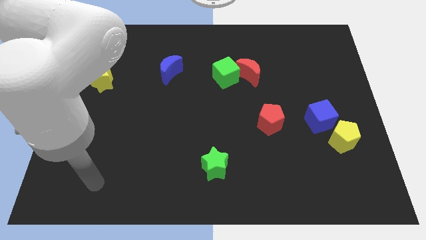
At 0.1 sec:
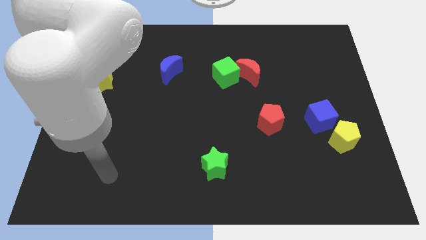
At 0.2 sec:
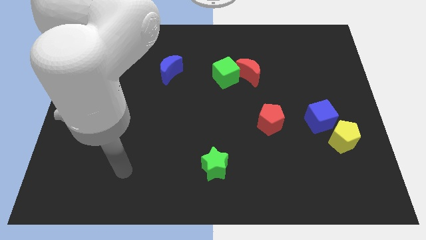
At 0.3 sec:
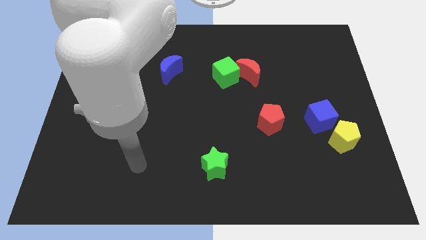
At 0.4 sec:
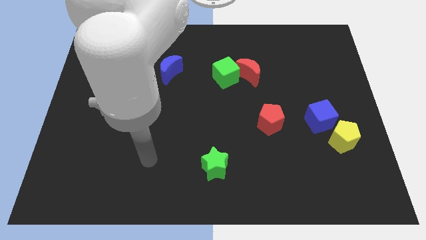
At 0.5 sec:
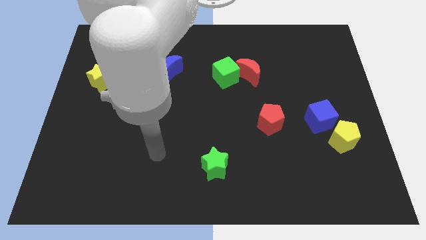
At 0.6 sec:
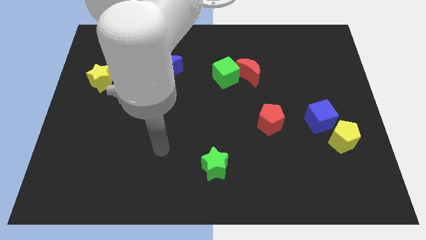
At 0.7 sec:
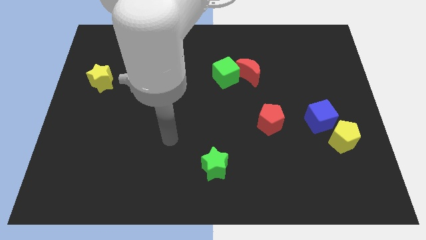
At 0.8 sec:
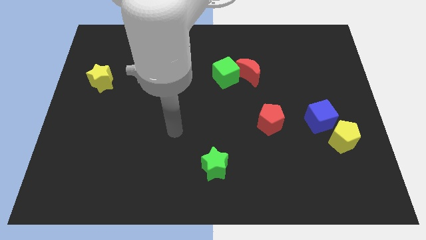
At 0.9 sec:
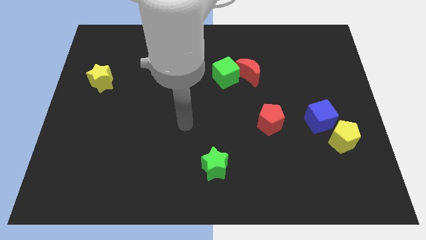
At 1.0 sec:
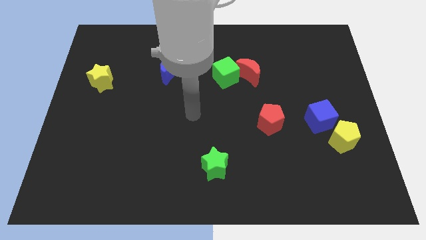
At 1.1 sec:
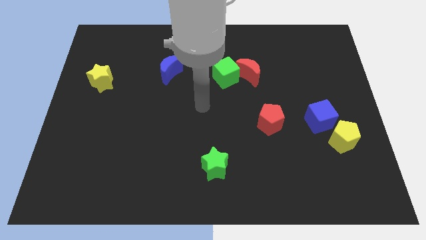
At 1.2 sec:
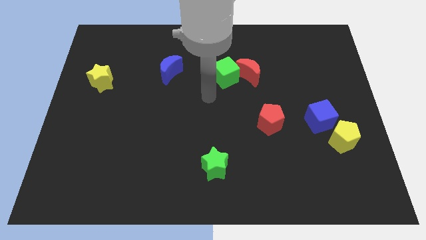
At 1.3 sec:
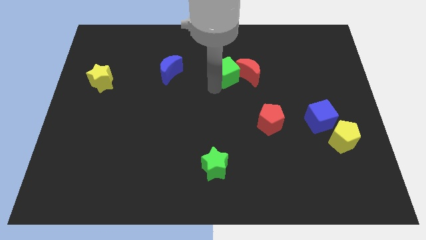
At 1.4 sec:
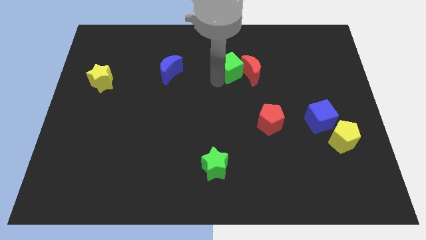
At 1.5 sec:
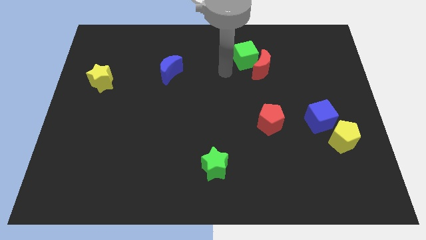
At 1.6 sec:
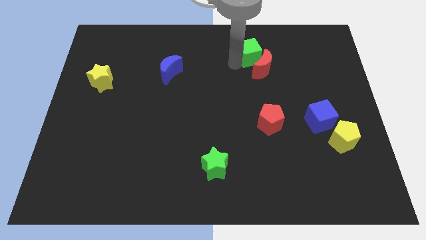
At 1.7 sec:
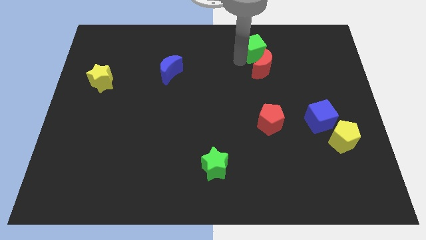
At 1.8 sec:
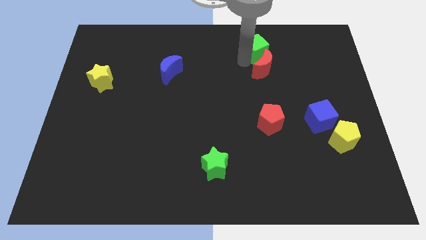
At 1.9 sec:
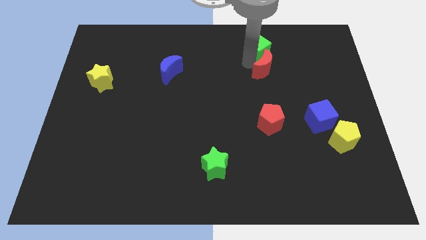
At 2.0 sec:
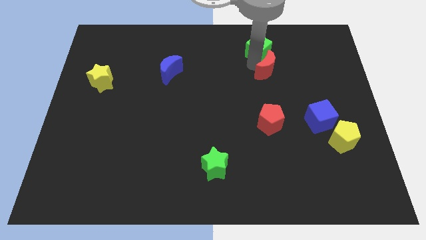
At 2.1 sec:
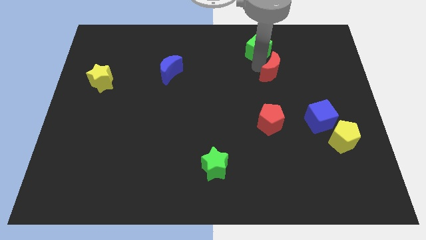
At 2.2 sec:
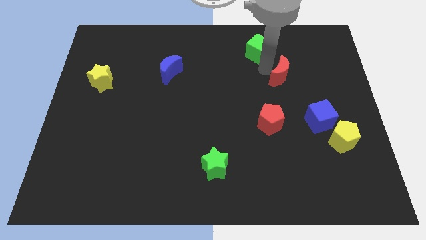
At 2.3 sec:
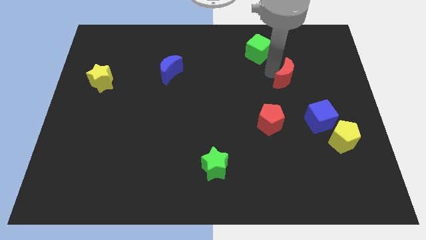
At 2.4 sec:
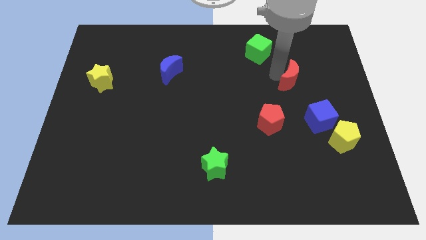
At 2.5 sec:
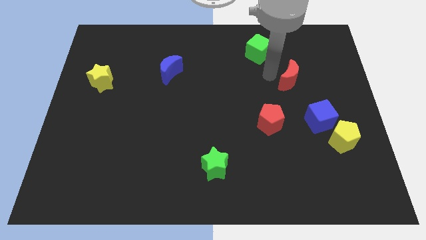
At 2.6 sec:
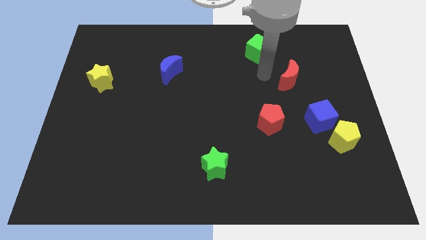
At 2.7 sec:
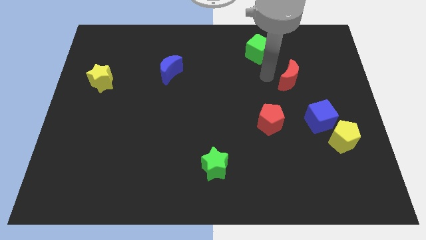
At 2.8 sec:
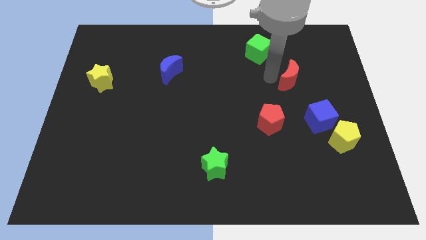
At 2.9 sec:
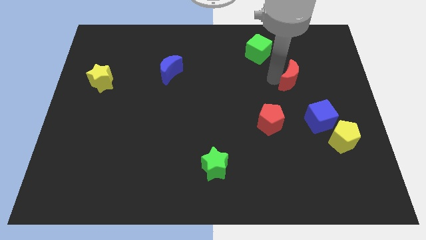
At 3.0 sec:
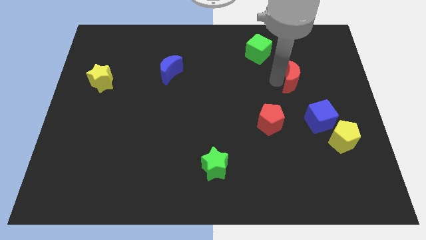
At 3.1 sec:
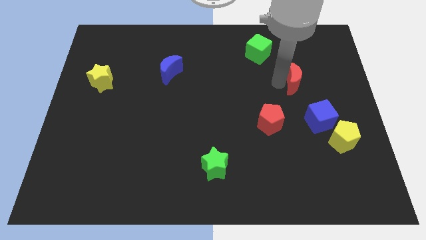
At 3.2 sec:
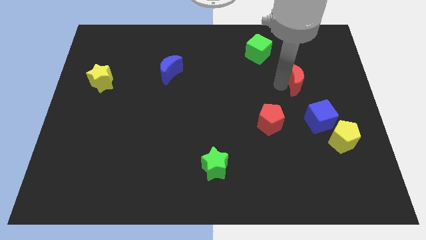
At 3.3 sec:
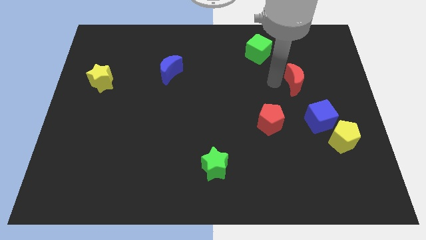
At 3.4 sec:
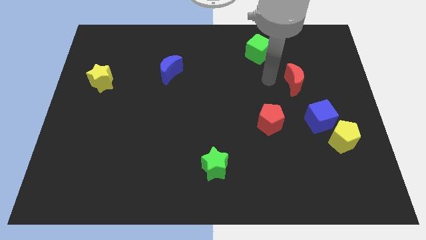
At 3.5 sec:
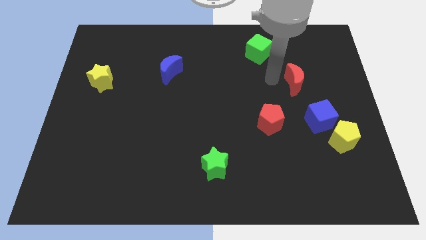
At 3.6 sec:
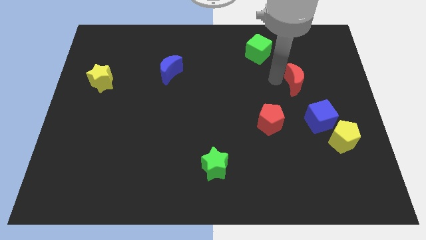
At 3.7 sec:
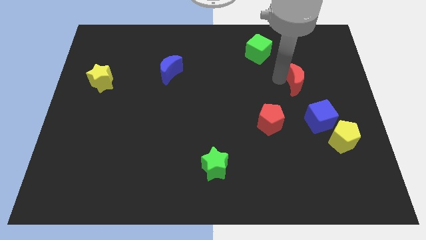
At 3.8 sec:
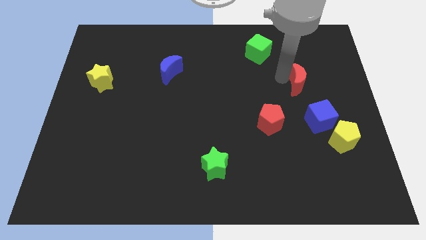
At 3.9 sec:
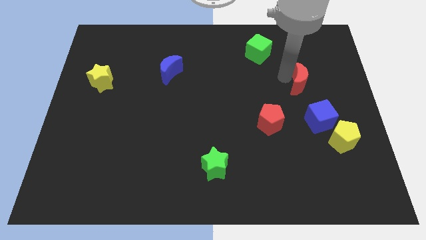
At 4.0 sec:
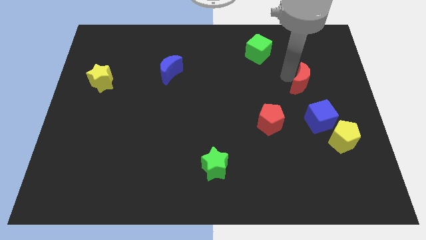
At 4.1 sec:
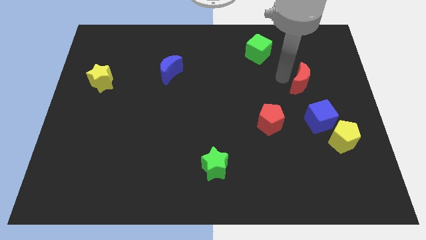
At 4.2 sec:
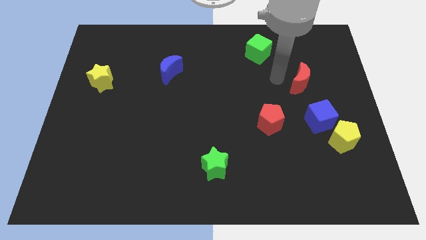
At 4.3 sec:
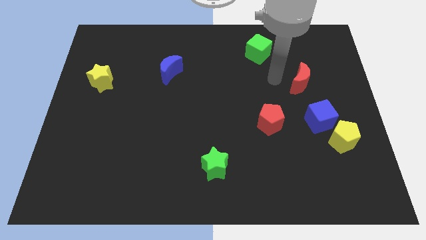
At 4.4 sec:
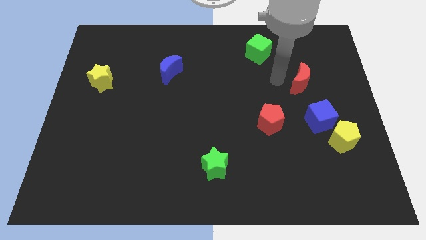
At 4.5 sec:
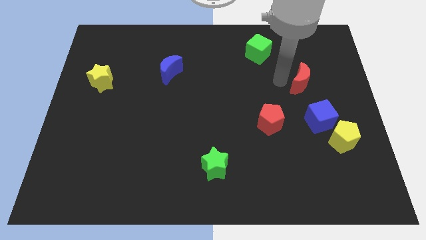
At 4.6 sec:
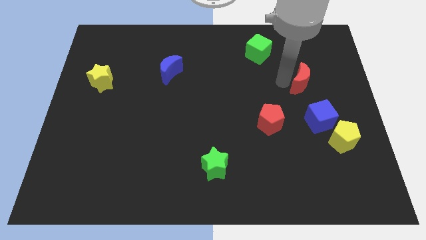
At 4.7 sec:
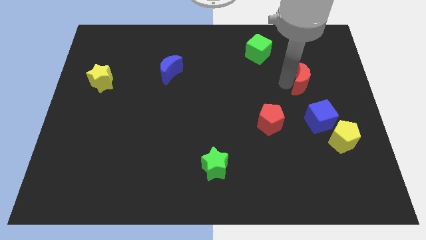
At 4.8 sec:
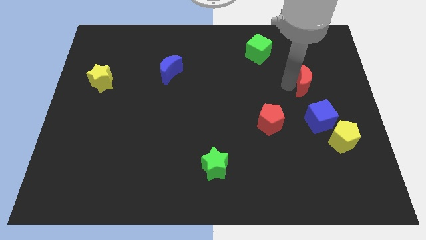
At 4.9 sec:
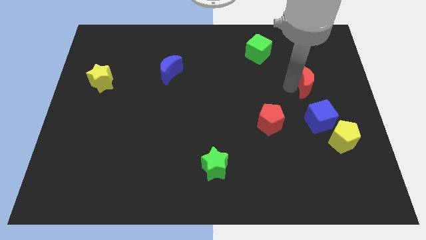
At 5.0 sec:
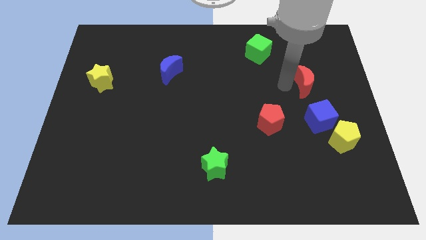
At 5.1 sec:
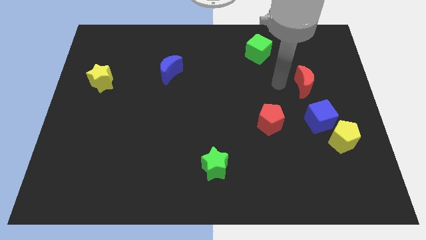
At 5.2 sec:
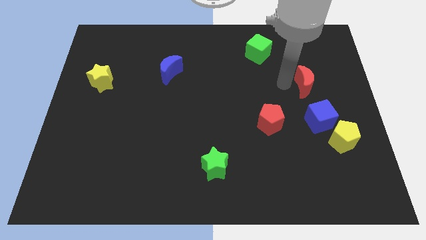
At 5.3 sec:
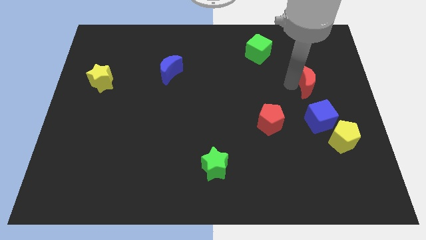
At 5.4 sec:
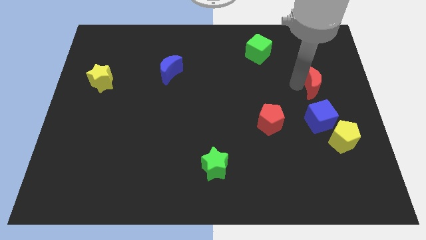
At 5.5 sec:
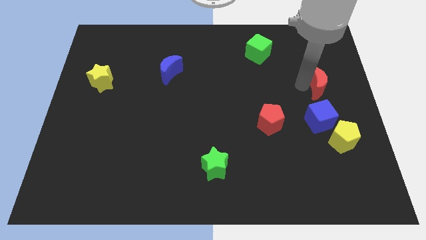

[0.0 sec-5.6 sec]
push the red moon to the right side of the board

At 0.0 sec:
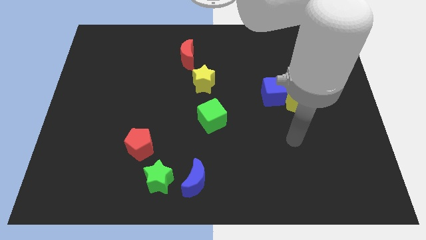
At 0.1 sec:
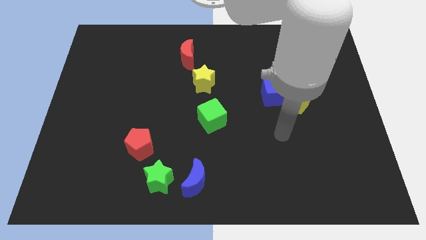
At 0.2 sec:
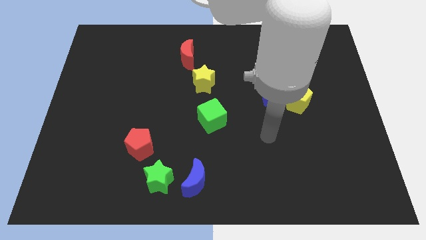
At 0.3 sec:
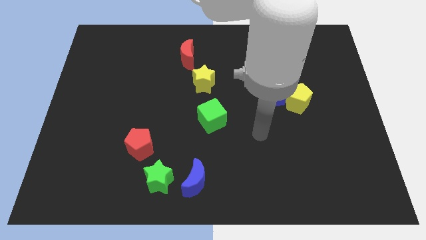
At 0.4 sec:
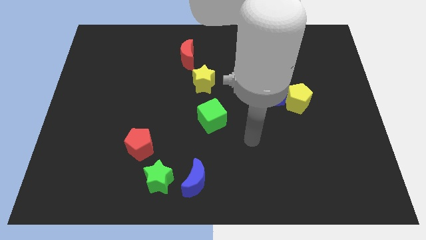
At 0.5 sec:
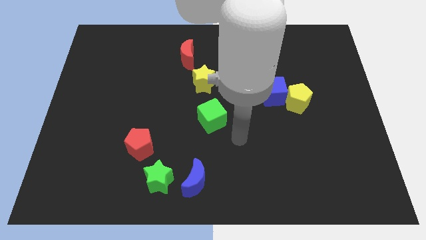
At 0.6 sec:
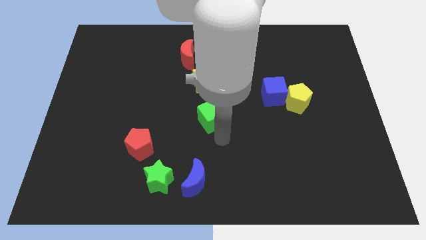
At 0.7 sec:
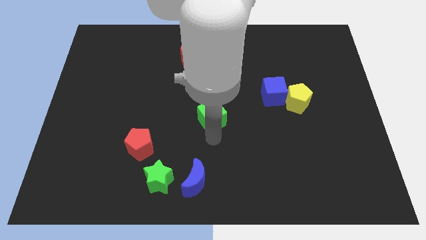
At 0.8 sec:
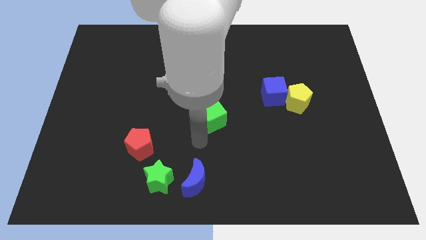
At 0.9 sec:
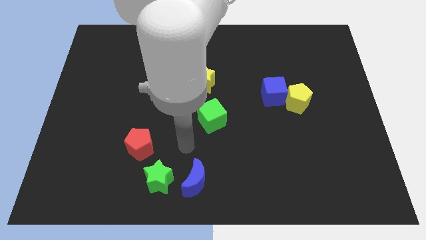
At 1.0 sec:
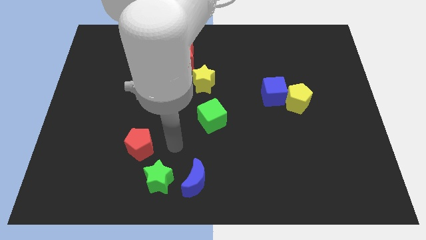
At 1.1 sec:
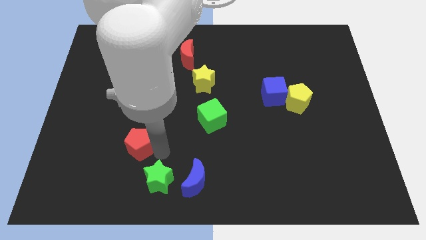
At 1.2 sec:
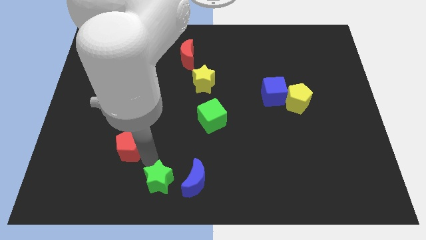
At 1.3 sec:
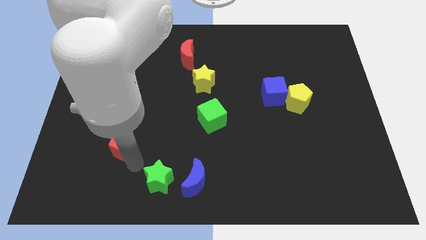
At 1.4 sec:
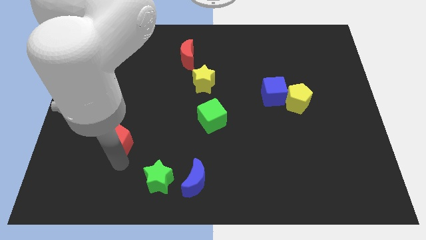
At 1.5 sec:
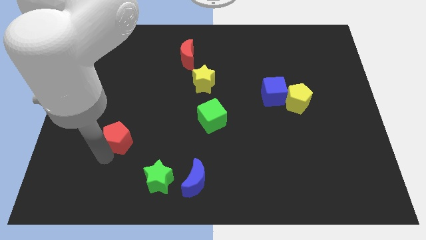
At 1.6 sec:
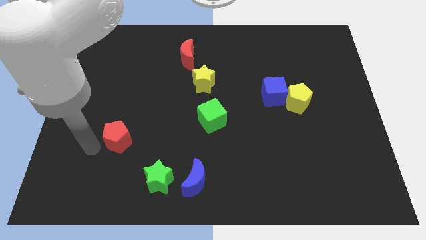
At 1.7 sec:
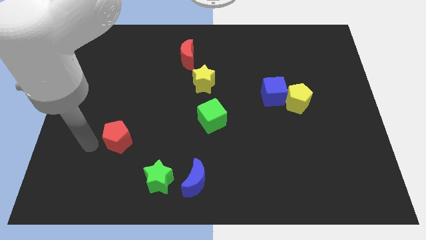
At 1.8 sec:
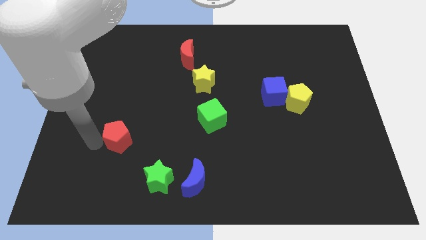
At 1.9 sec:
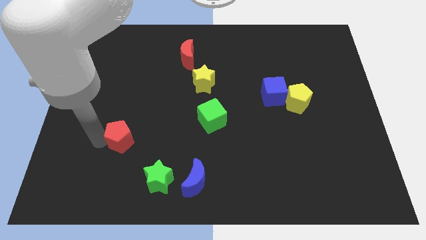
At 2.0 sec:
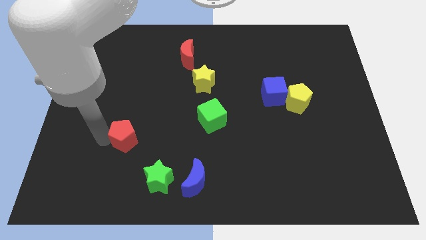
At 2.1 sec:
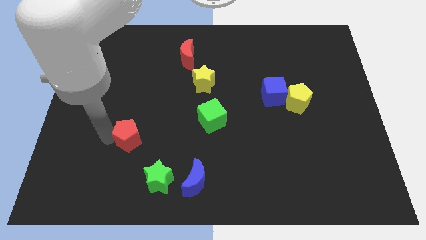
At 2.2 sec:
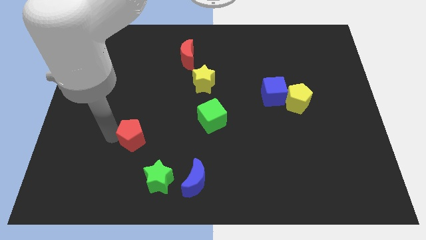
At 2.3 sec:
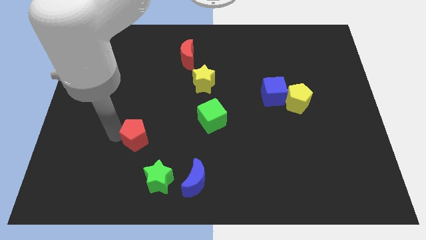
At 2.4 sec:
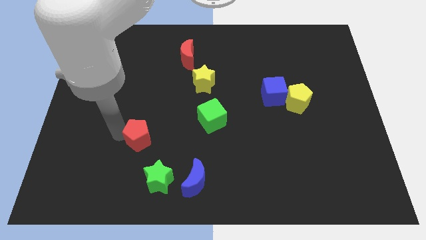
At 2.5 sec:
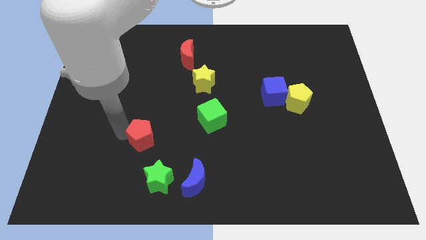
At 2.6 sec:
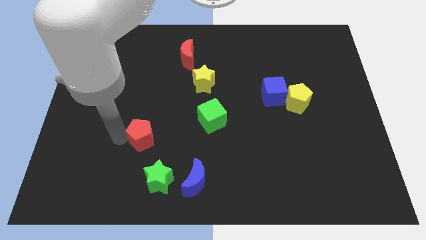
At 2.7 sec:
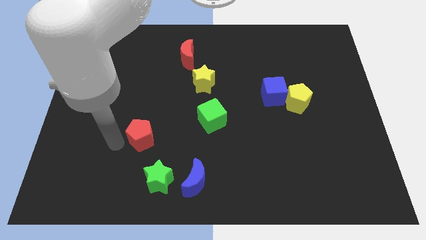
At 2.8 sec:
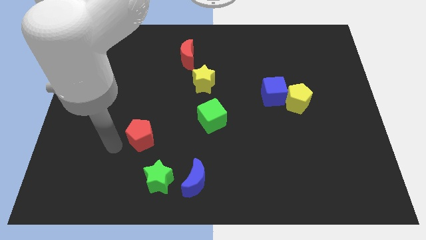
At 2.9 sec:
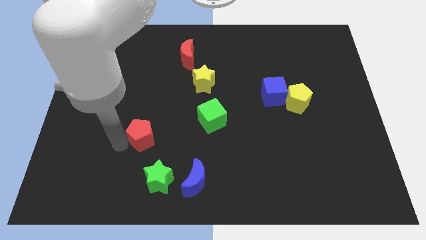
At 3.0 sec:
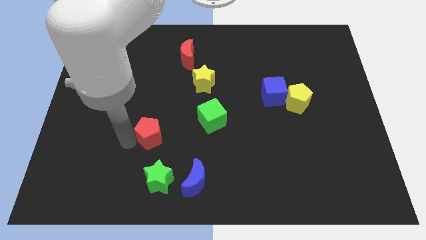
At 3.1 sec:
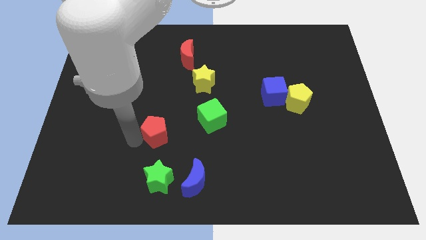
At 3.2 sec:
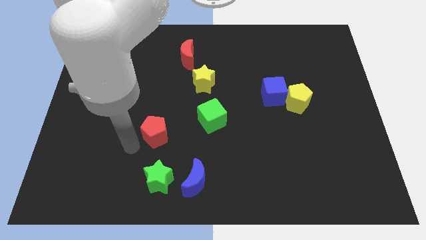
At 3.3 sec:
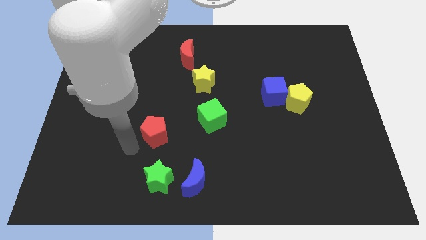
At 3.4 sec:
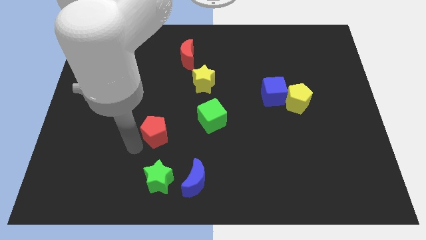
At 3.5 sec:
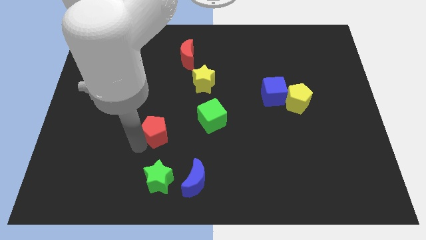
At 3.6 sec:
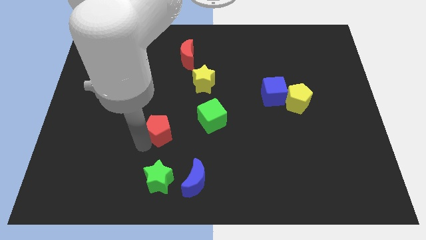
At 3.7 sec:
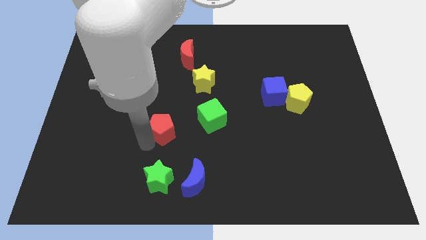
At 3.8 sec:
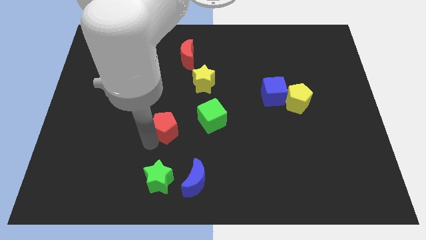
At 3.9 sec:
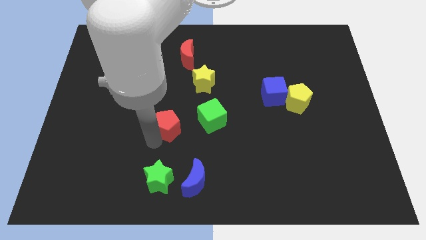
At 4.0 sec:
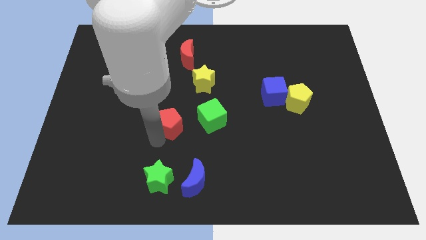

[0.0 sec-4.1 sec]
slide the red pentagon to the middle of the board
